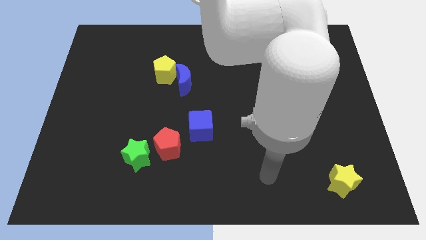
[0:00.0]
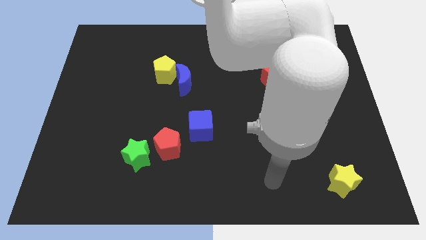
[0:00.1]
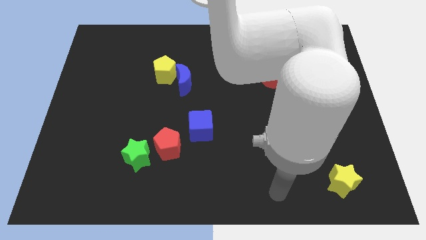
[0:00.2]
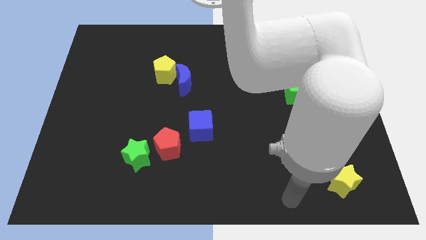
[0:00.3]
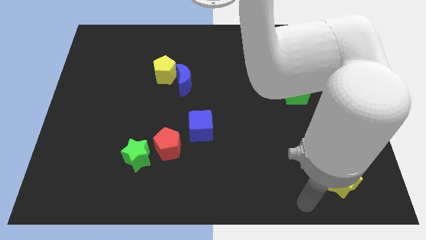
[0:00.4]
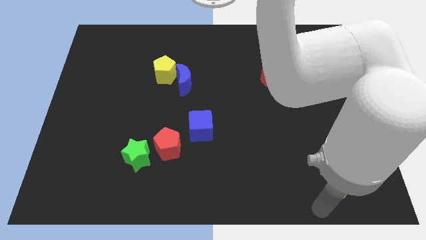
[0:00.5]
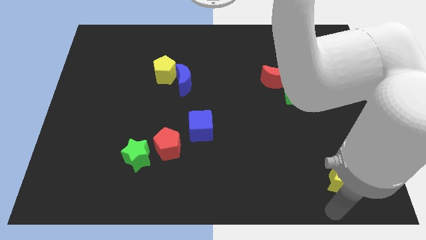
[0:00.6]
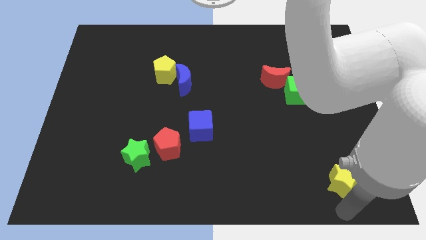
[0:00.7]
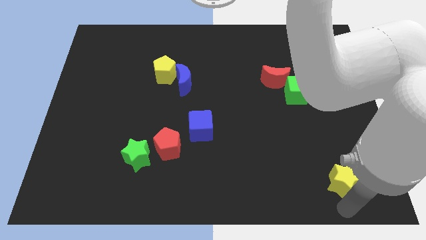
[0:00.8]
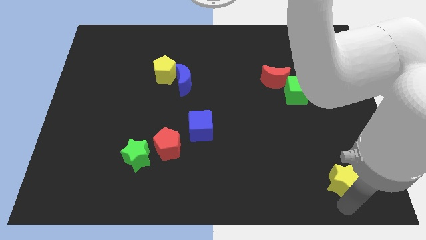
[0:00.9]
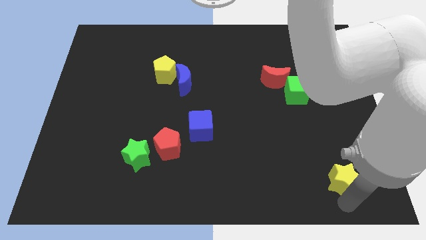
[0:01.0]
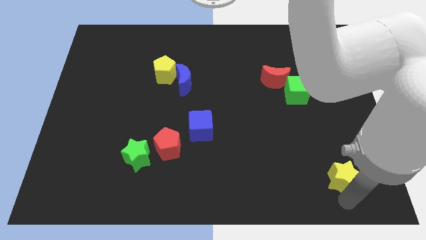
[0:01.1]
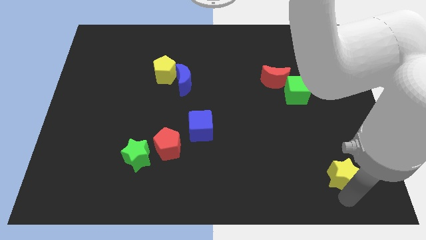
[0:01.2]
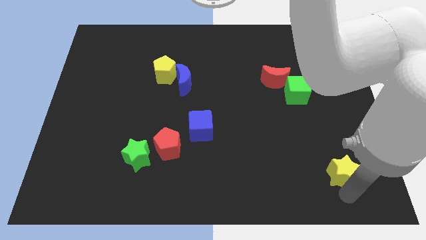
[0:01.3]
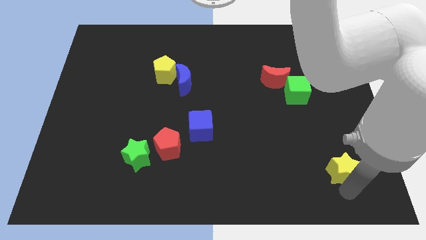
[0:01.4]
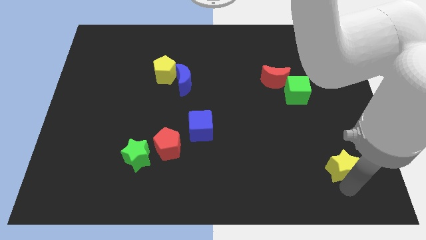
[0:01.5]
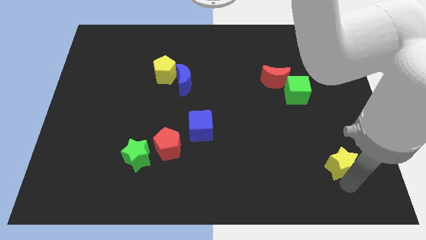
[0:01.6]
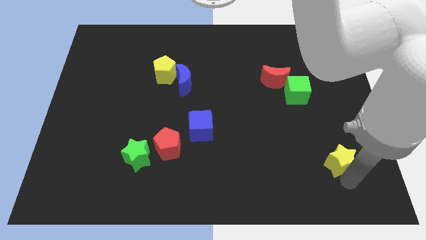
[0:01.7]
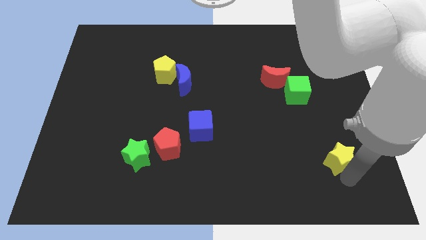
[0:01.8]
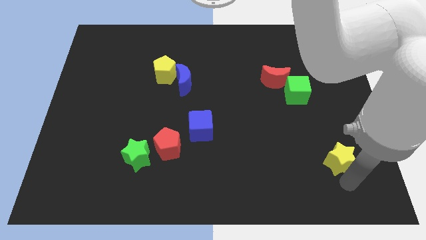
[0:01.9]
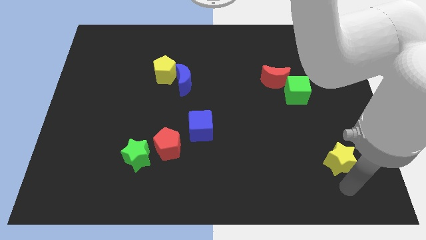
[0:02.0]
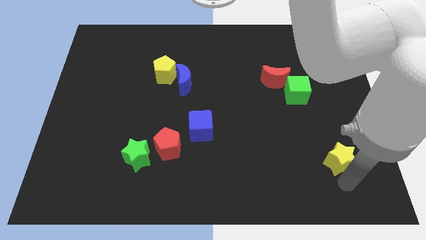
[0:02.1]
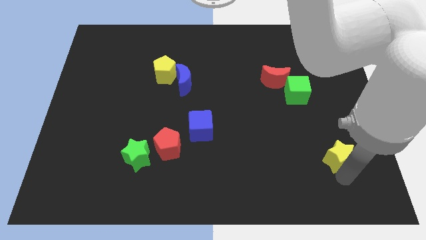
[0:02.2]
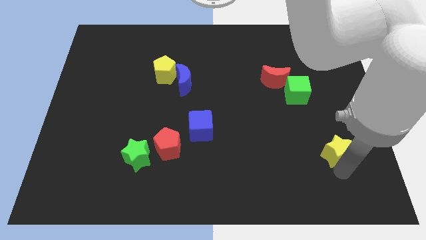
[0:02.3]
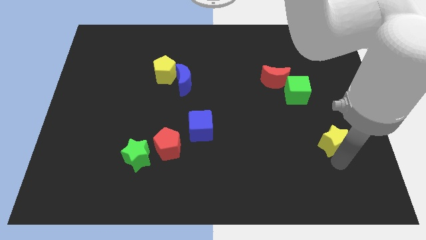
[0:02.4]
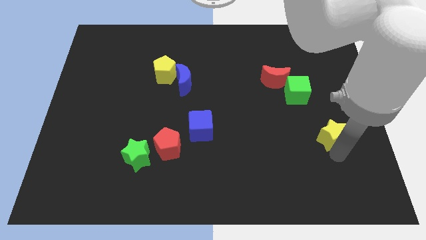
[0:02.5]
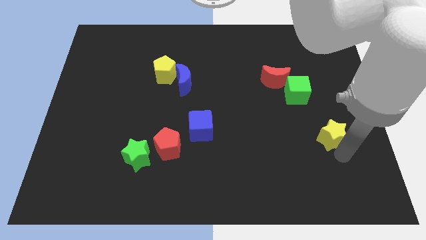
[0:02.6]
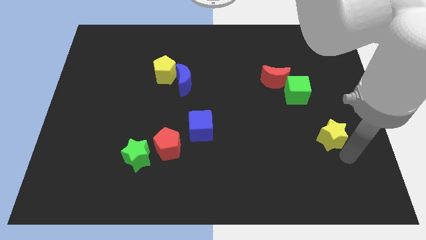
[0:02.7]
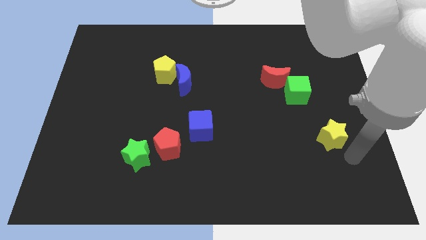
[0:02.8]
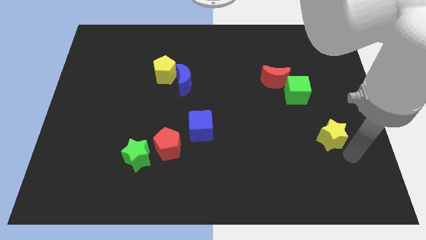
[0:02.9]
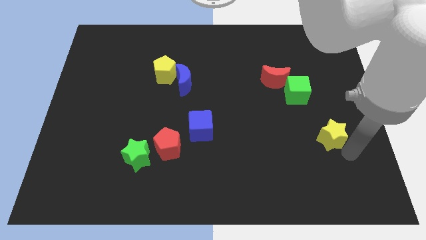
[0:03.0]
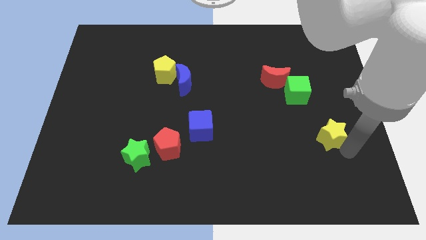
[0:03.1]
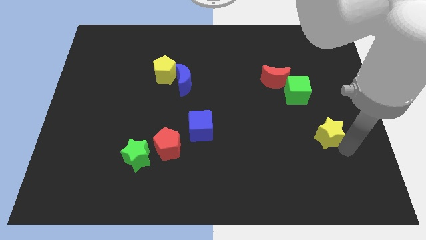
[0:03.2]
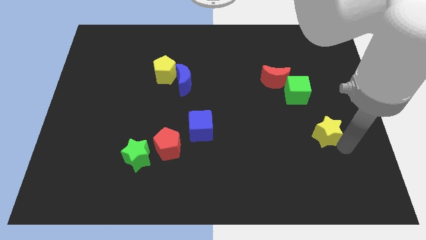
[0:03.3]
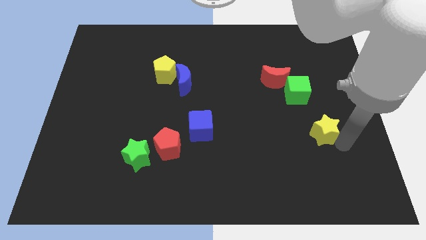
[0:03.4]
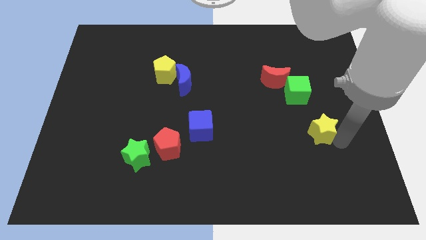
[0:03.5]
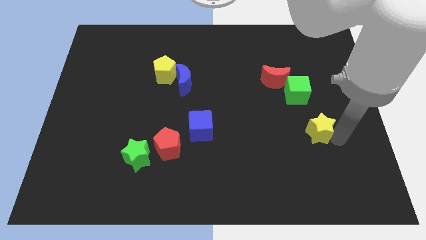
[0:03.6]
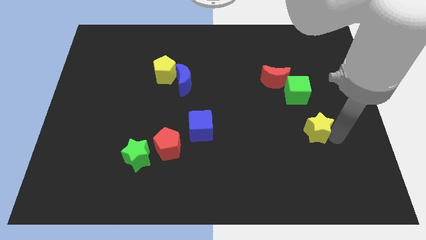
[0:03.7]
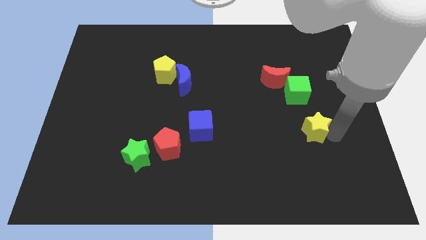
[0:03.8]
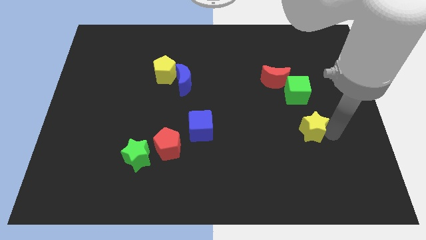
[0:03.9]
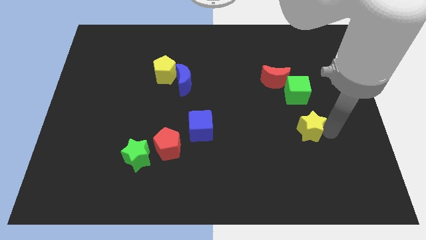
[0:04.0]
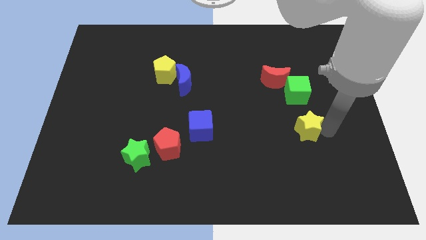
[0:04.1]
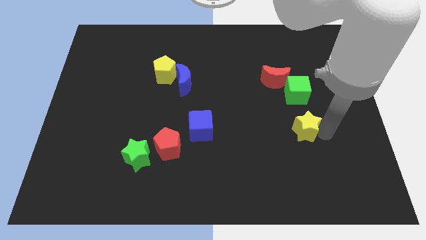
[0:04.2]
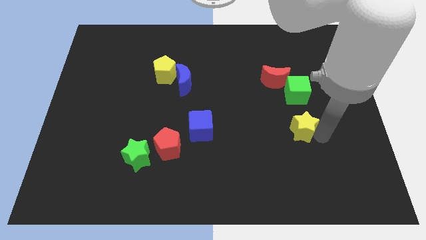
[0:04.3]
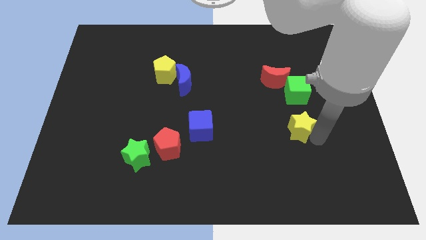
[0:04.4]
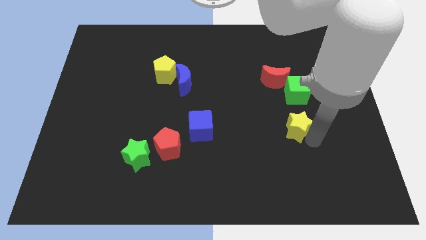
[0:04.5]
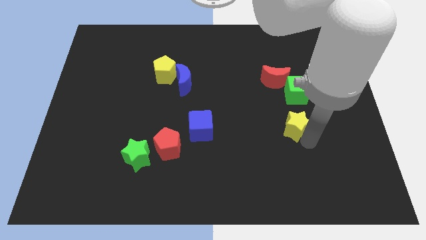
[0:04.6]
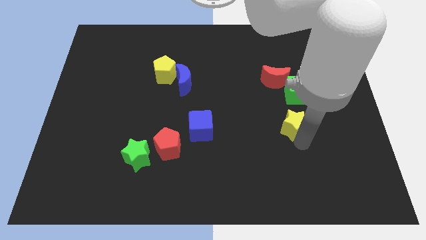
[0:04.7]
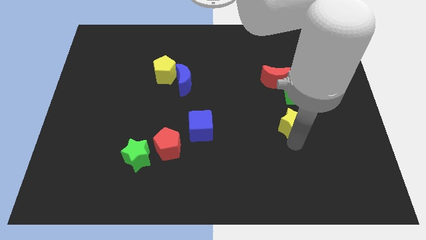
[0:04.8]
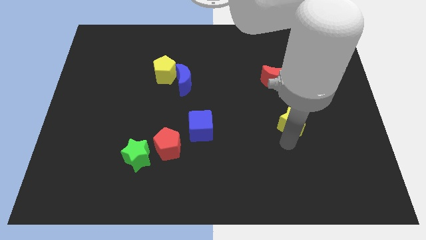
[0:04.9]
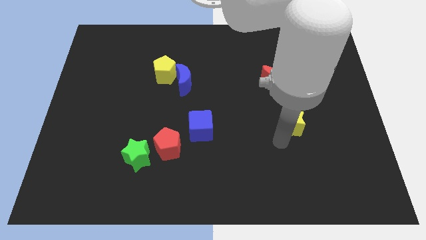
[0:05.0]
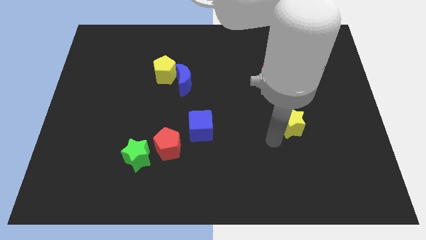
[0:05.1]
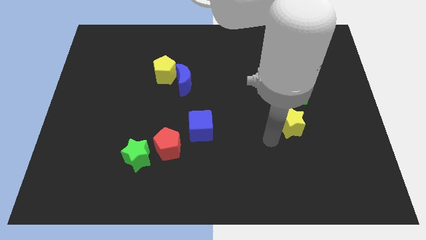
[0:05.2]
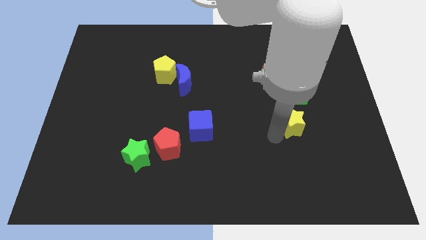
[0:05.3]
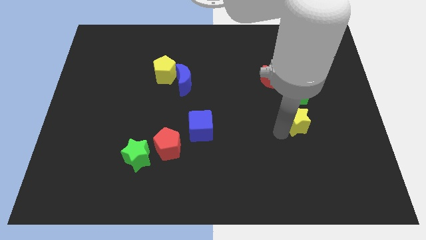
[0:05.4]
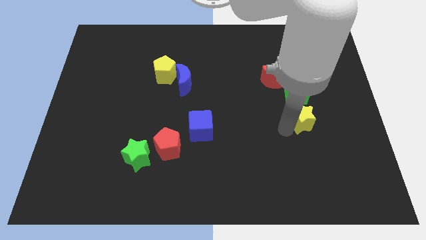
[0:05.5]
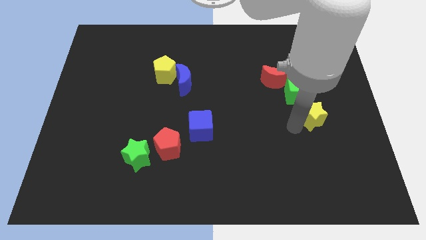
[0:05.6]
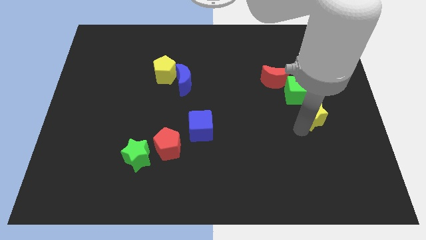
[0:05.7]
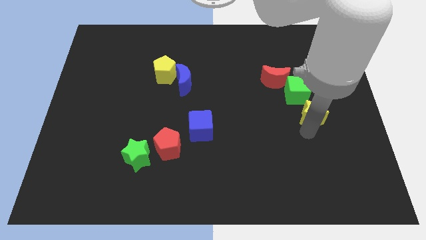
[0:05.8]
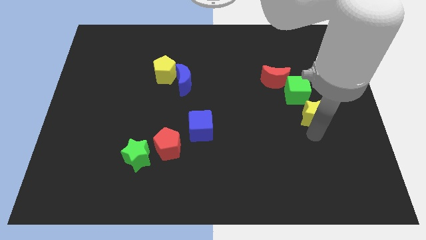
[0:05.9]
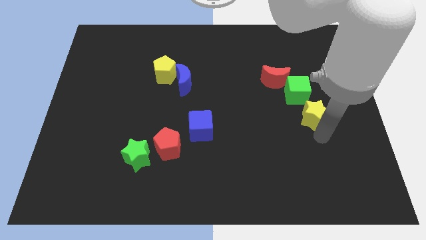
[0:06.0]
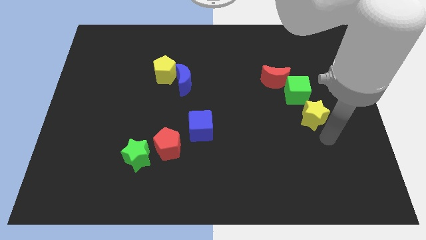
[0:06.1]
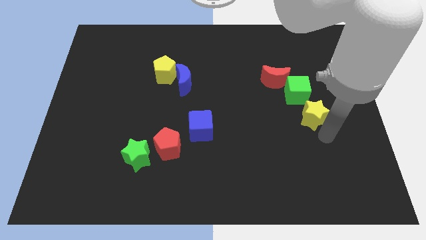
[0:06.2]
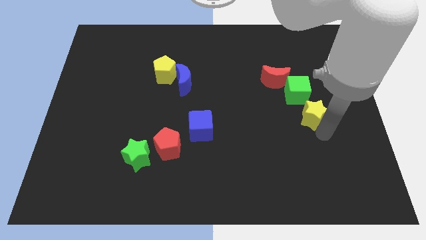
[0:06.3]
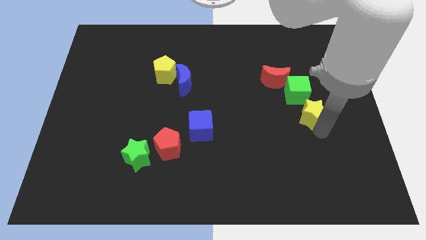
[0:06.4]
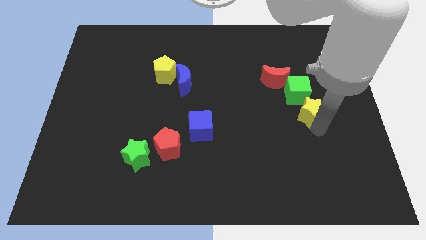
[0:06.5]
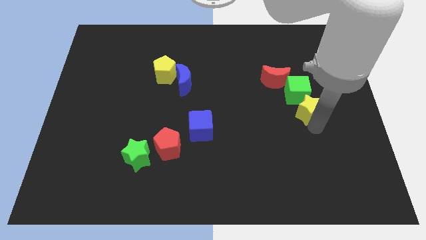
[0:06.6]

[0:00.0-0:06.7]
slide the yellow star to the green cube
